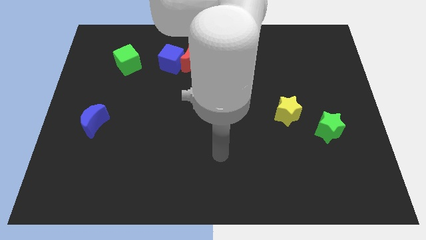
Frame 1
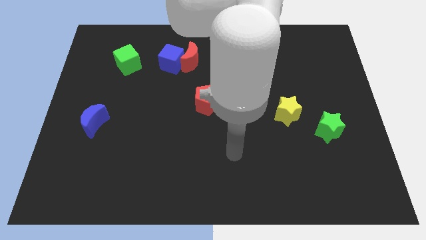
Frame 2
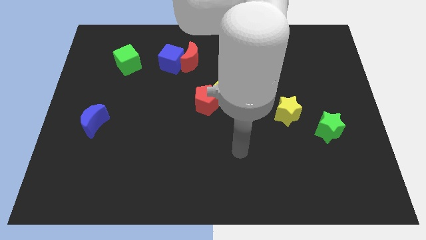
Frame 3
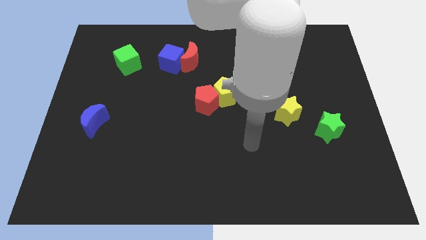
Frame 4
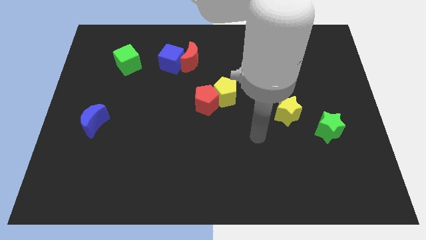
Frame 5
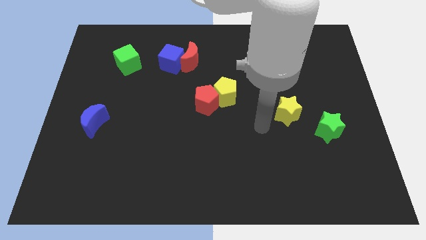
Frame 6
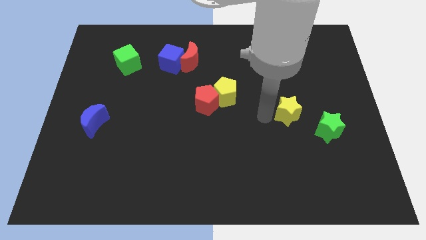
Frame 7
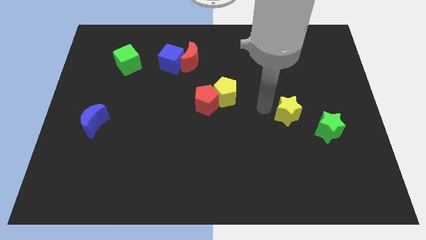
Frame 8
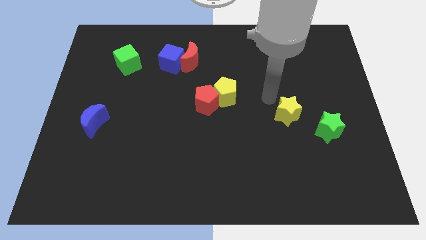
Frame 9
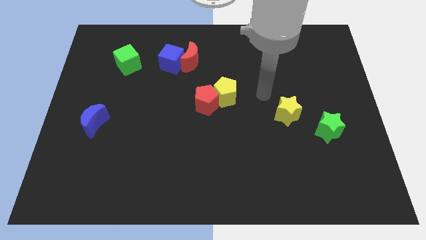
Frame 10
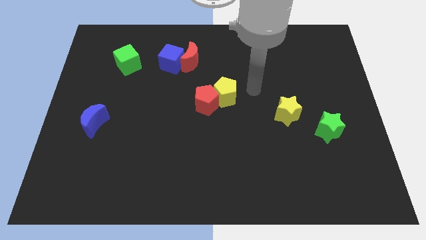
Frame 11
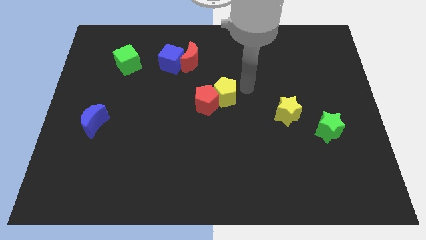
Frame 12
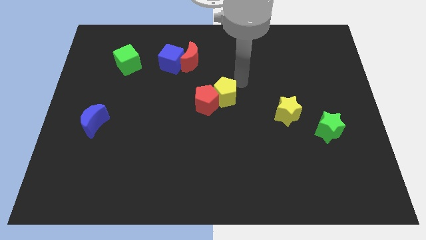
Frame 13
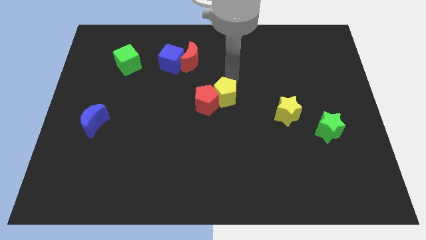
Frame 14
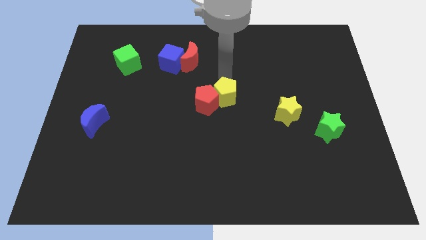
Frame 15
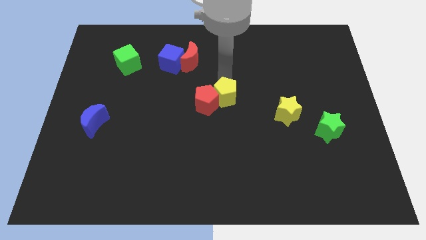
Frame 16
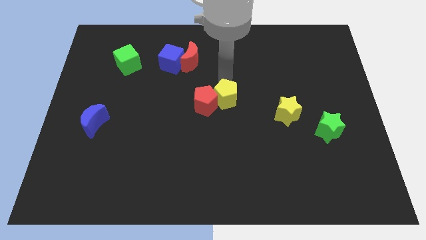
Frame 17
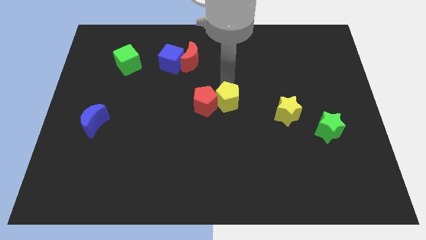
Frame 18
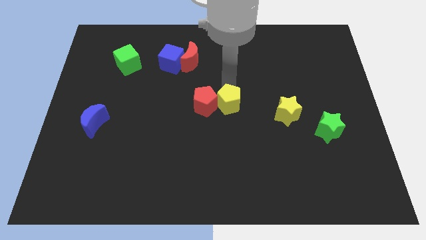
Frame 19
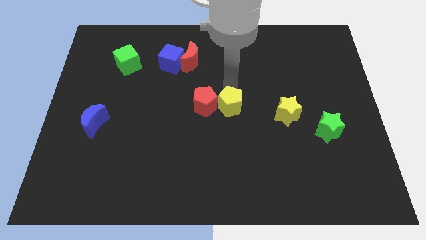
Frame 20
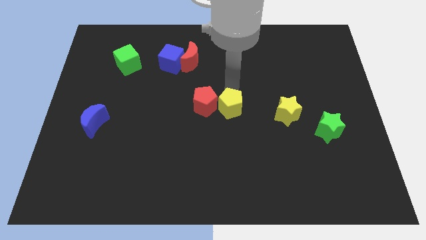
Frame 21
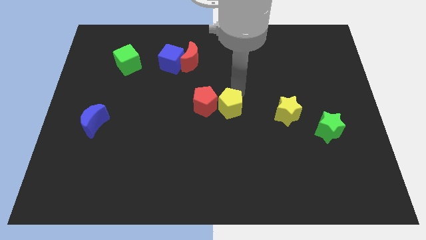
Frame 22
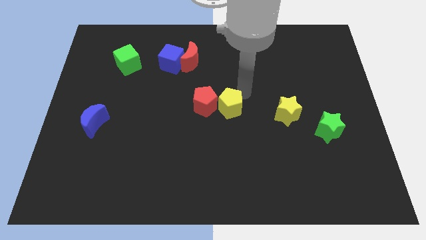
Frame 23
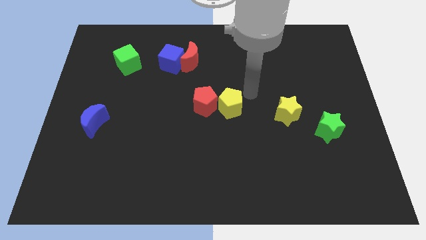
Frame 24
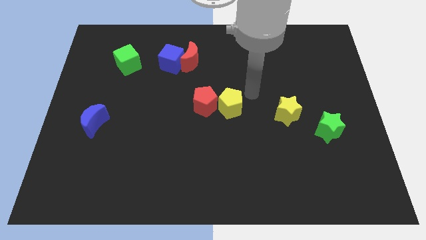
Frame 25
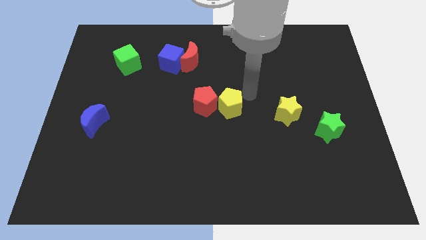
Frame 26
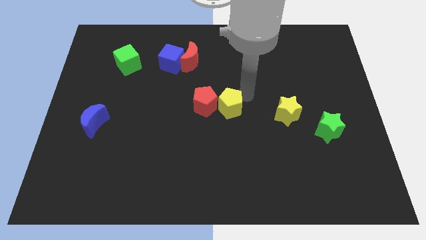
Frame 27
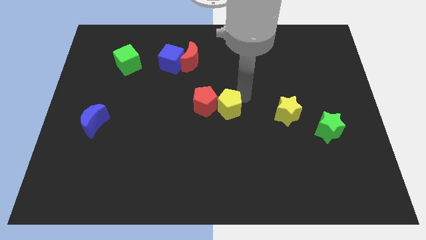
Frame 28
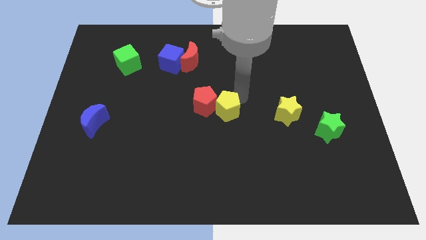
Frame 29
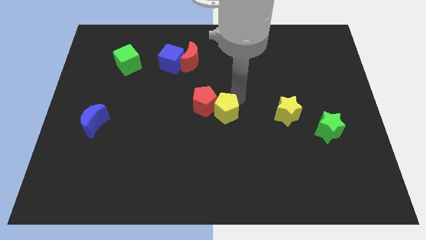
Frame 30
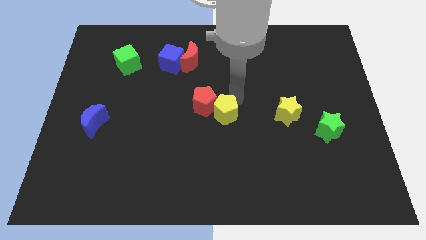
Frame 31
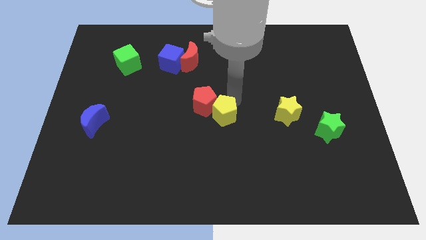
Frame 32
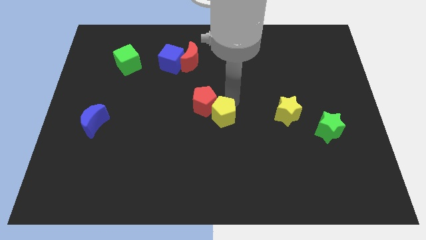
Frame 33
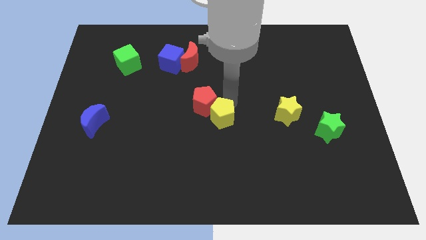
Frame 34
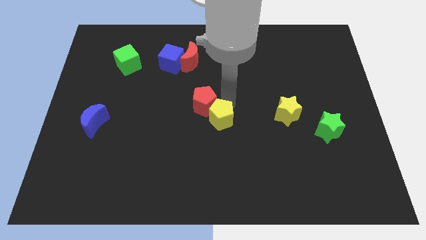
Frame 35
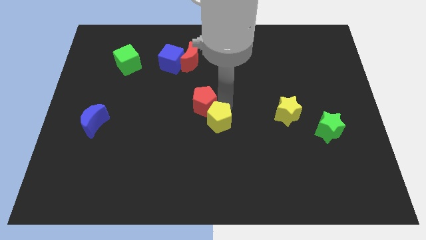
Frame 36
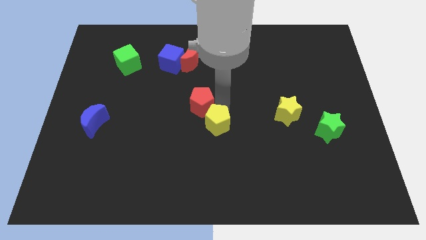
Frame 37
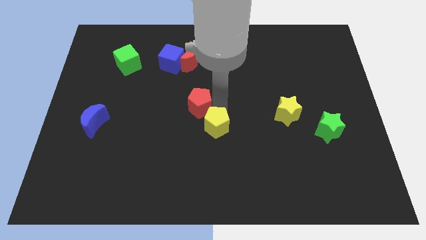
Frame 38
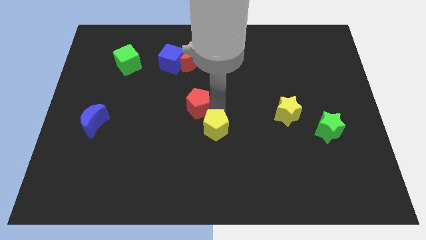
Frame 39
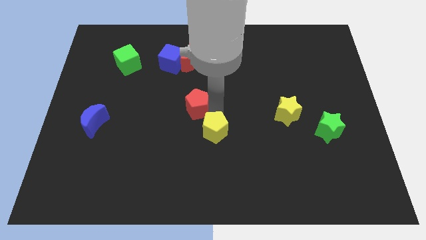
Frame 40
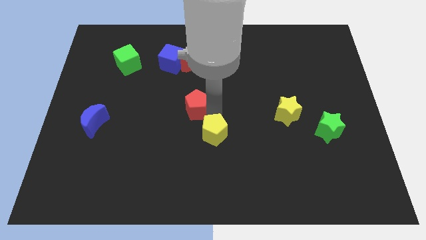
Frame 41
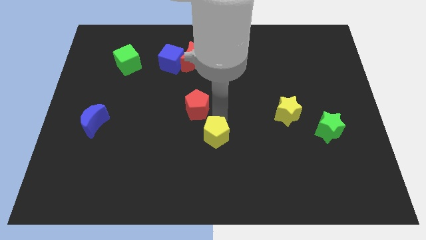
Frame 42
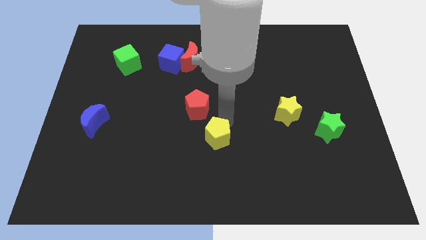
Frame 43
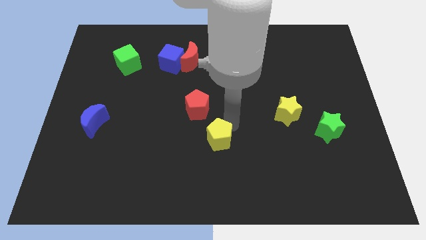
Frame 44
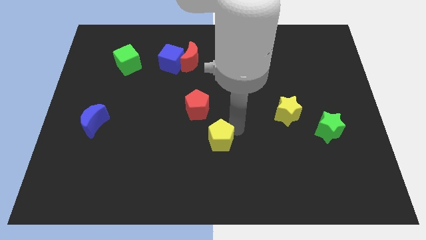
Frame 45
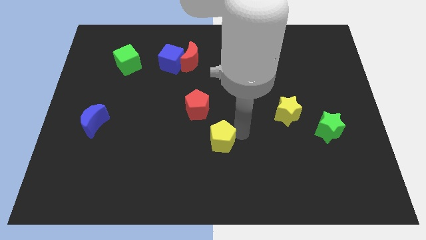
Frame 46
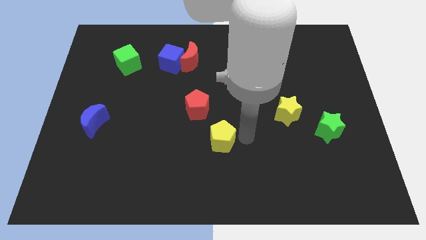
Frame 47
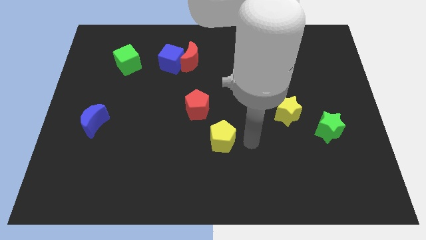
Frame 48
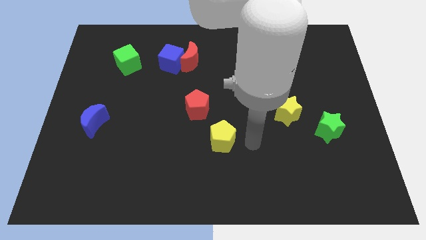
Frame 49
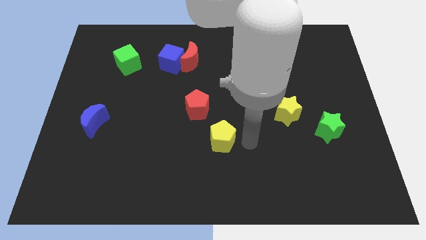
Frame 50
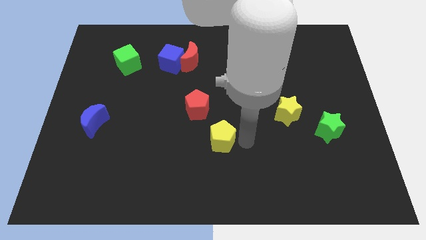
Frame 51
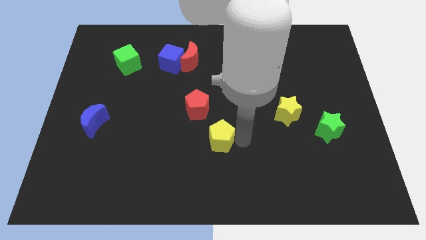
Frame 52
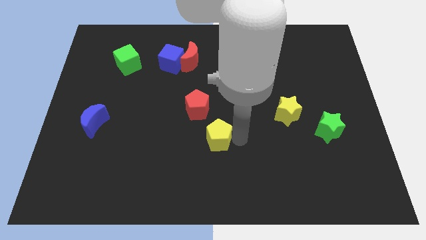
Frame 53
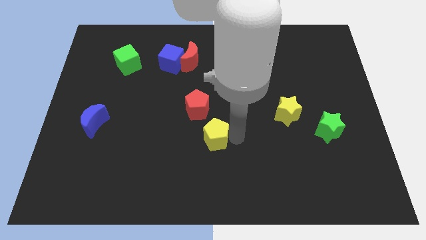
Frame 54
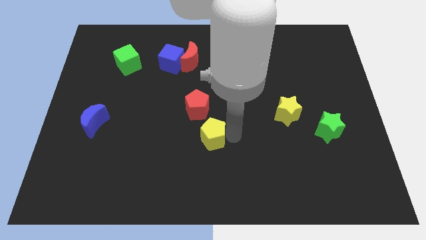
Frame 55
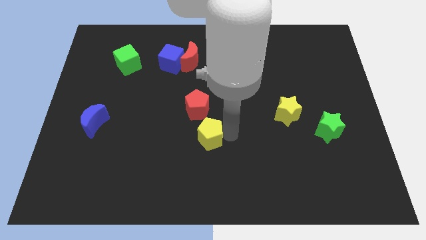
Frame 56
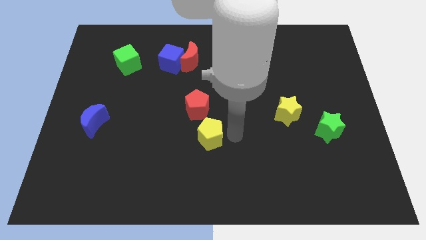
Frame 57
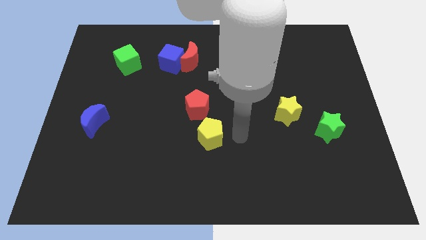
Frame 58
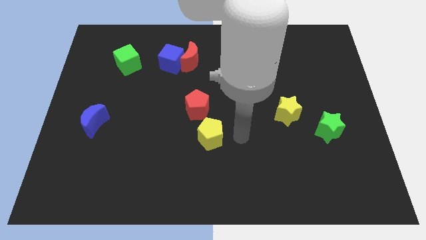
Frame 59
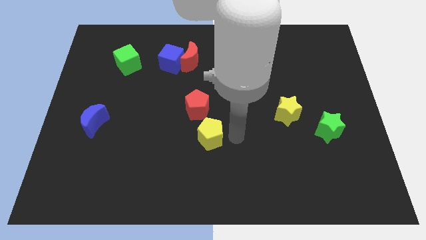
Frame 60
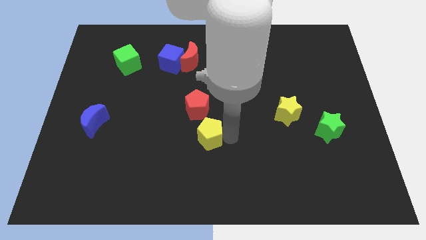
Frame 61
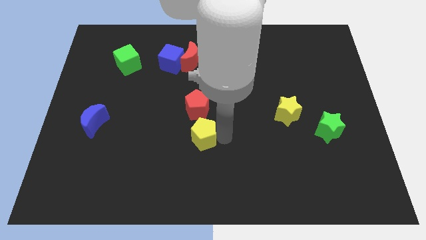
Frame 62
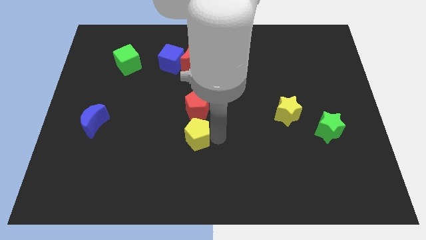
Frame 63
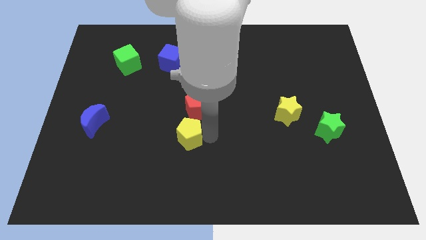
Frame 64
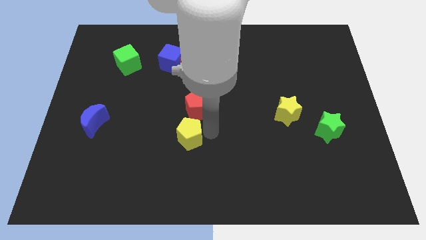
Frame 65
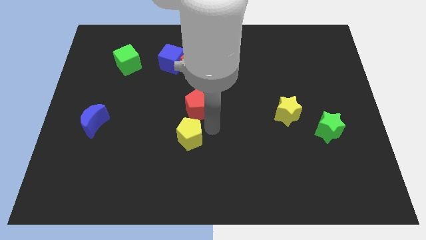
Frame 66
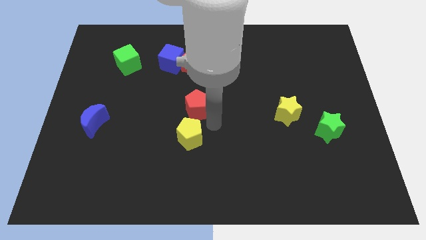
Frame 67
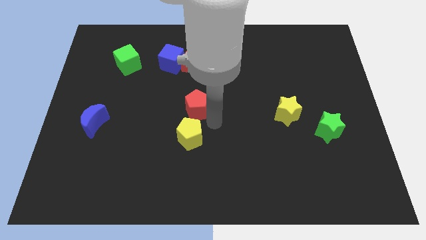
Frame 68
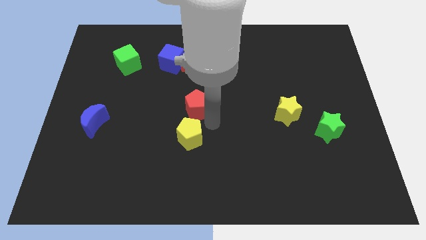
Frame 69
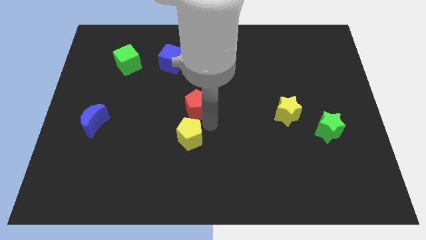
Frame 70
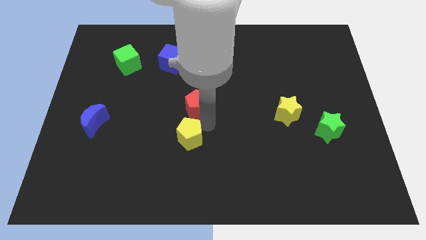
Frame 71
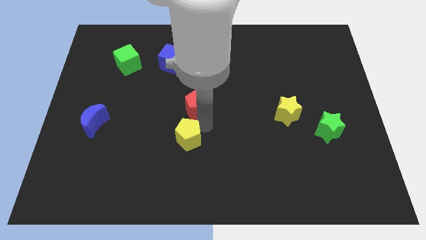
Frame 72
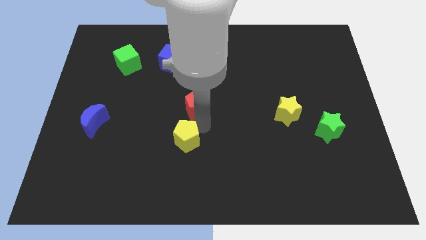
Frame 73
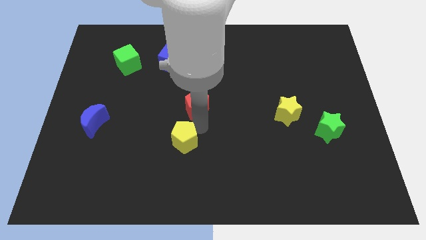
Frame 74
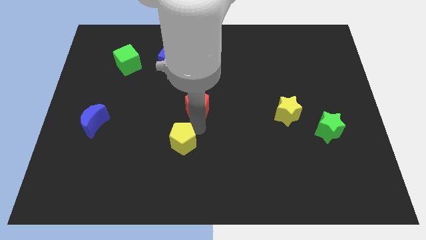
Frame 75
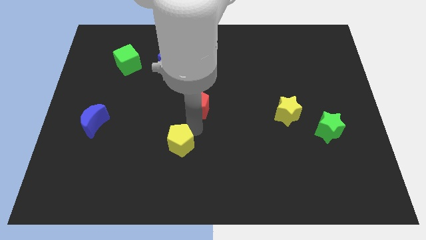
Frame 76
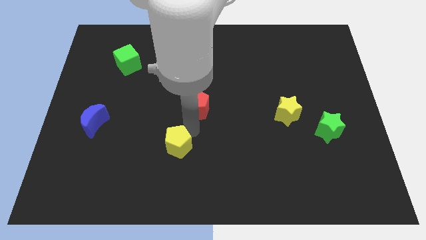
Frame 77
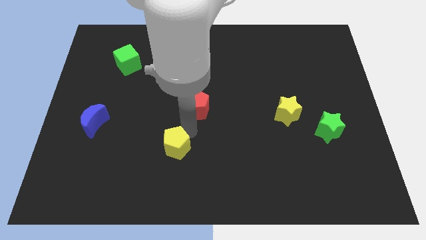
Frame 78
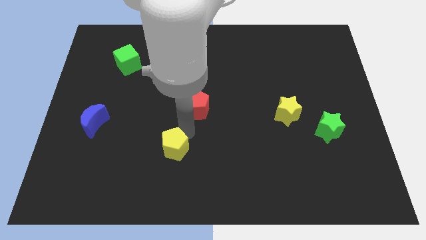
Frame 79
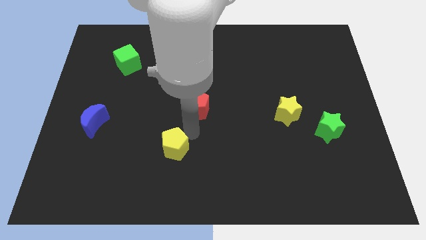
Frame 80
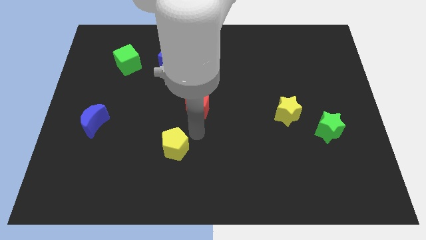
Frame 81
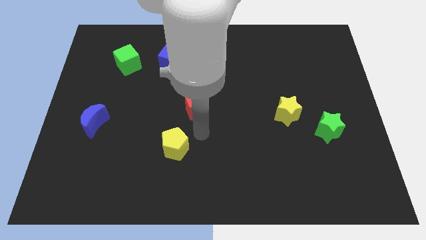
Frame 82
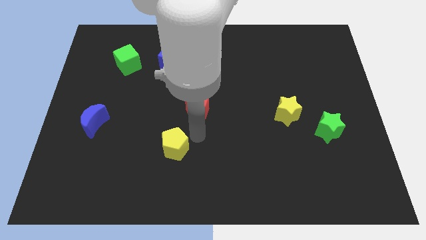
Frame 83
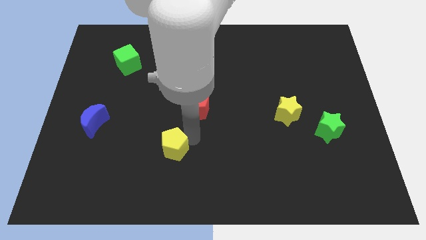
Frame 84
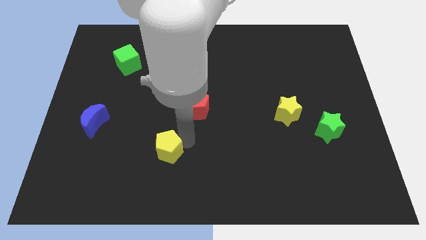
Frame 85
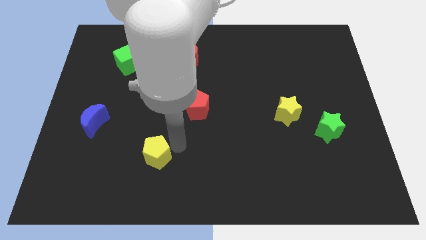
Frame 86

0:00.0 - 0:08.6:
push the yellow pentagon diagonally downwards and left
